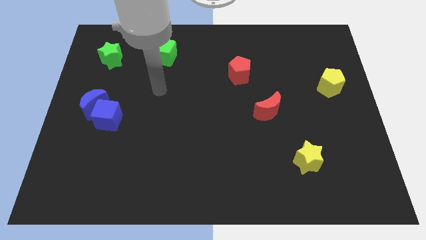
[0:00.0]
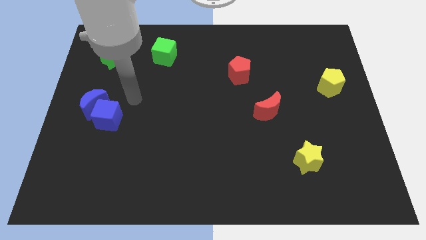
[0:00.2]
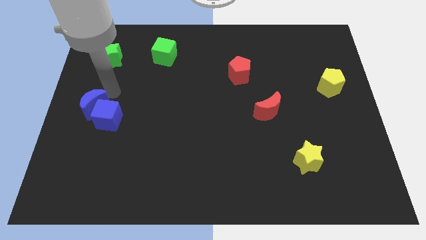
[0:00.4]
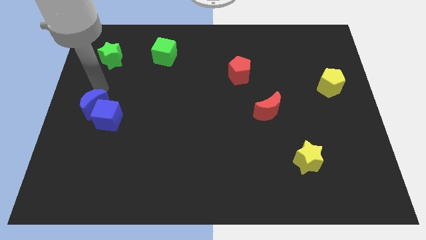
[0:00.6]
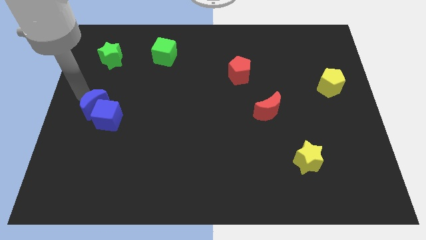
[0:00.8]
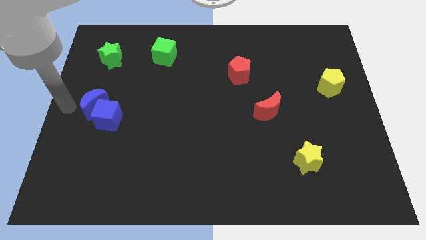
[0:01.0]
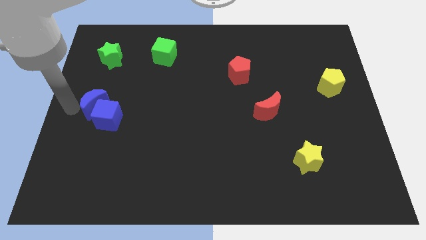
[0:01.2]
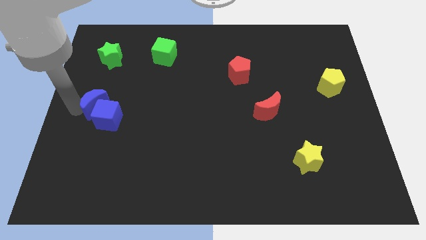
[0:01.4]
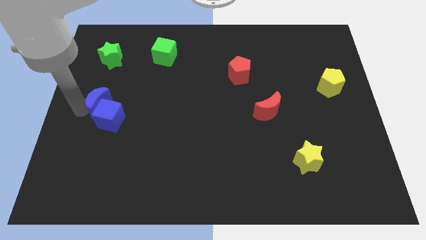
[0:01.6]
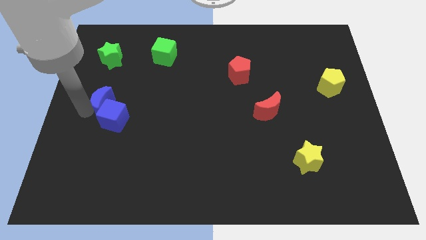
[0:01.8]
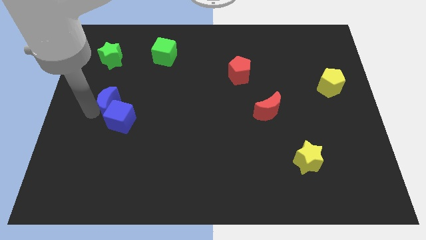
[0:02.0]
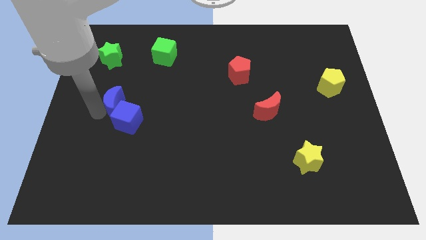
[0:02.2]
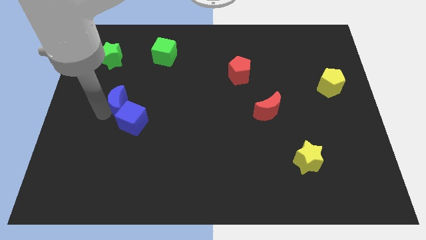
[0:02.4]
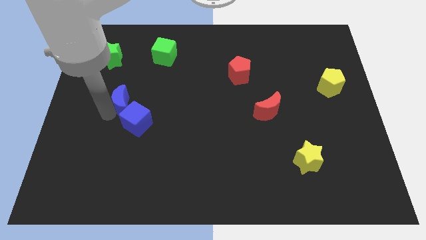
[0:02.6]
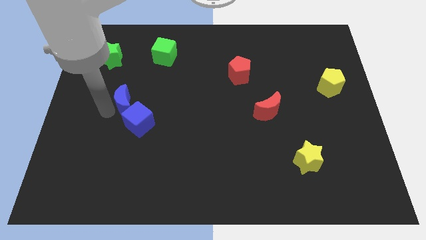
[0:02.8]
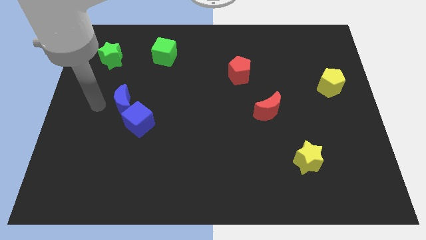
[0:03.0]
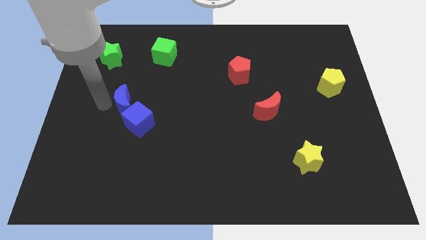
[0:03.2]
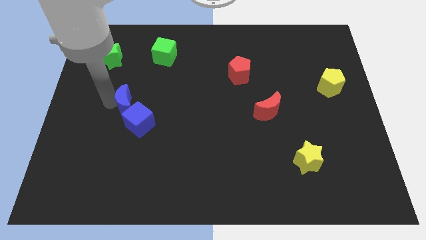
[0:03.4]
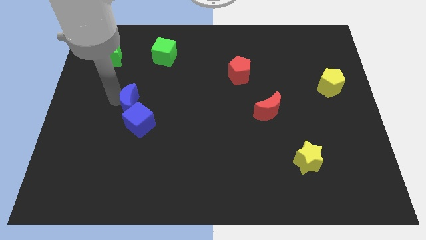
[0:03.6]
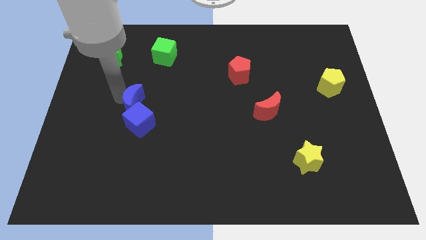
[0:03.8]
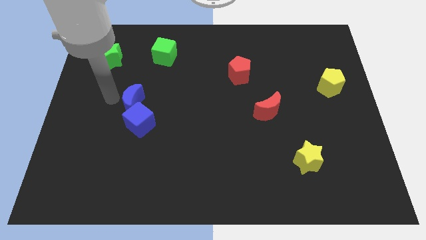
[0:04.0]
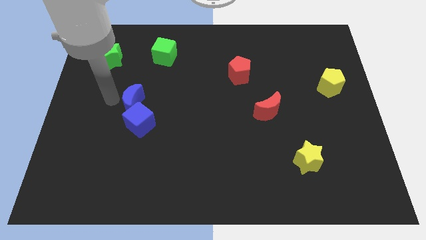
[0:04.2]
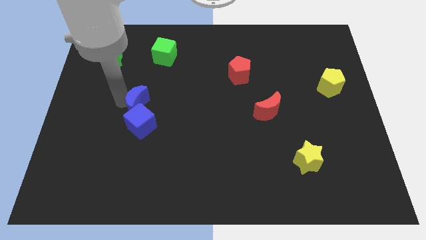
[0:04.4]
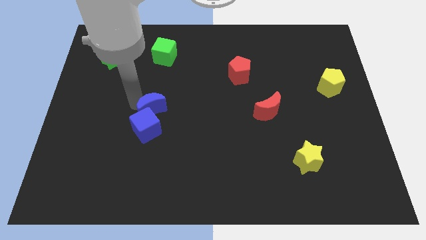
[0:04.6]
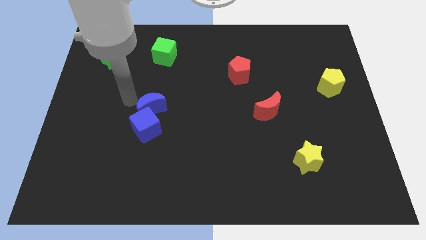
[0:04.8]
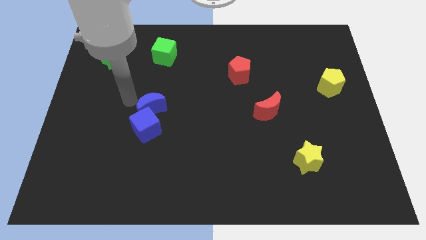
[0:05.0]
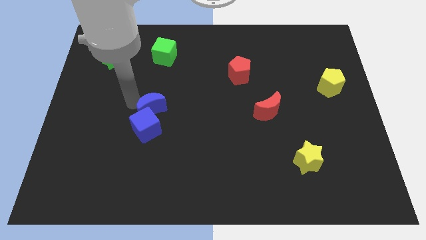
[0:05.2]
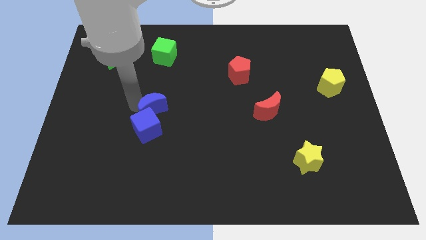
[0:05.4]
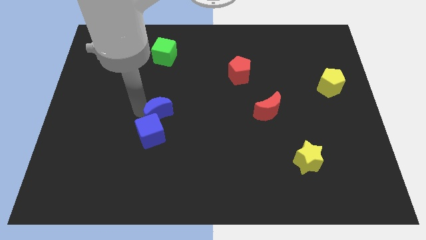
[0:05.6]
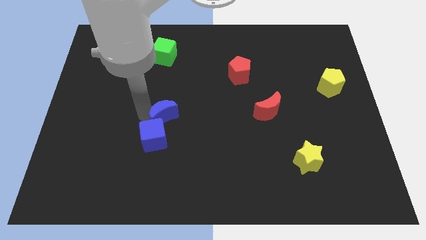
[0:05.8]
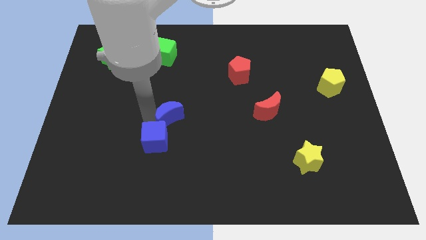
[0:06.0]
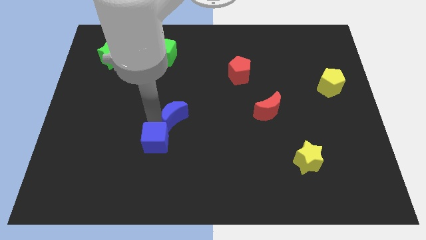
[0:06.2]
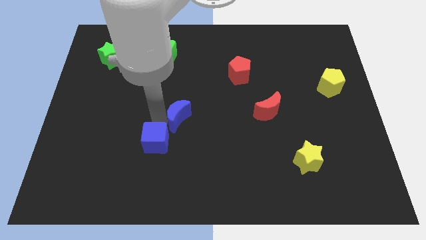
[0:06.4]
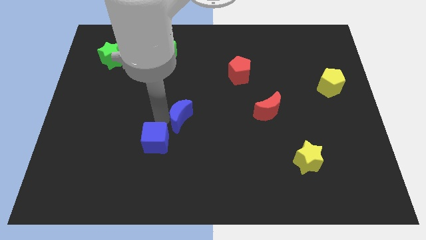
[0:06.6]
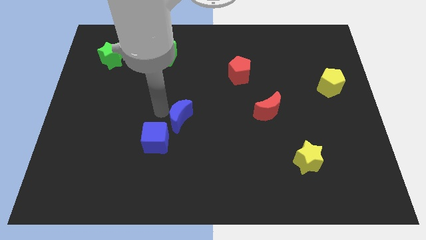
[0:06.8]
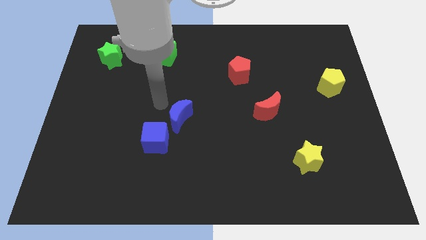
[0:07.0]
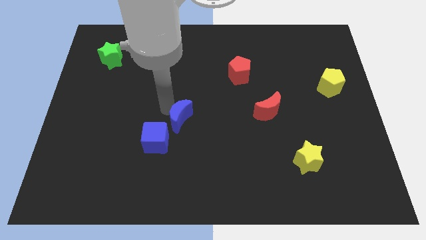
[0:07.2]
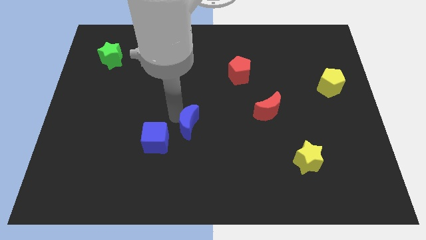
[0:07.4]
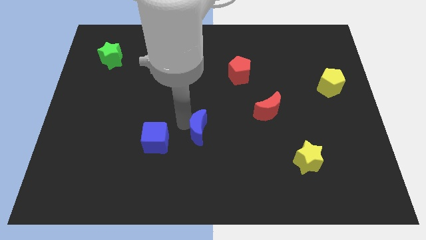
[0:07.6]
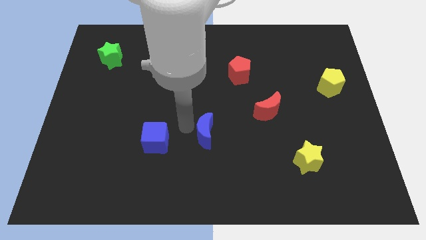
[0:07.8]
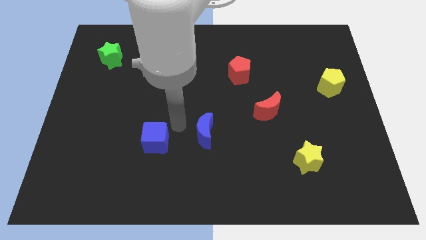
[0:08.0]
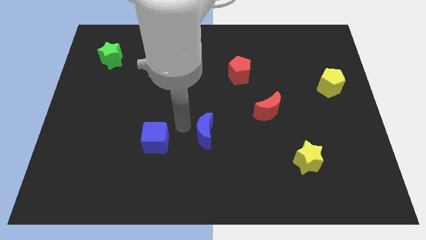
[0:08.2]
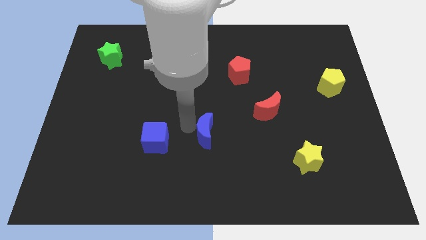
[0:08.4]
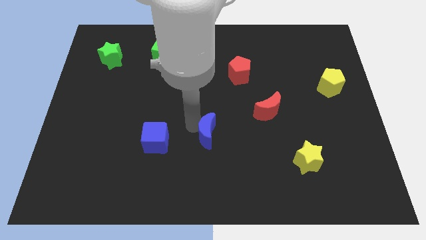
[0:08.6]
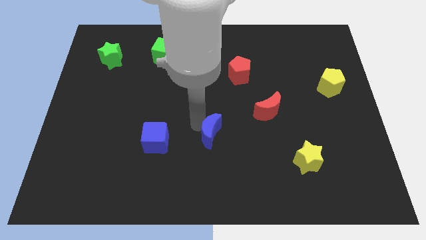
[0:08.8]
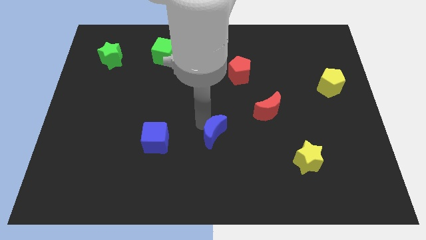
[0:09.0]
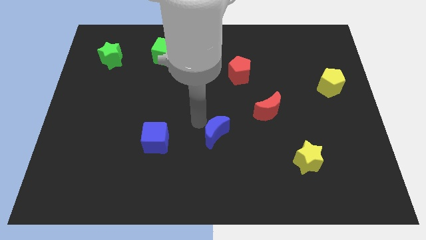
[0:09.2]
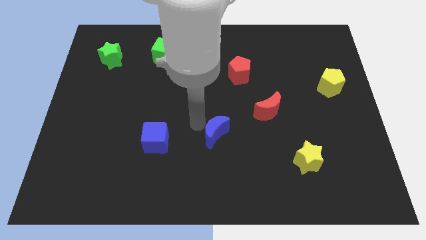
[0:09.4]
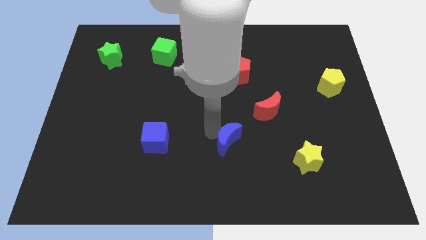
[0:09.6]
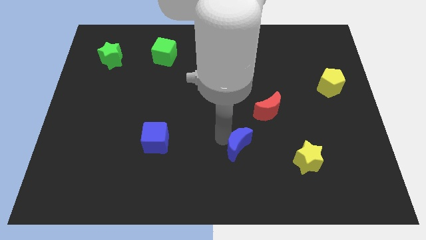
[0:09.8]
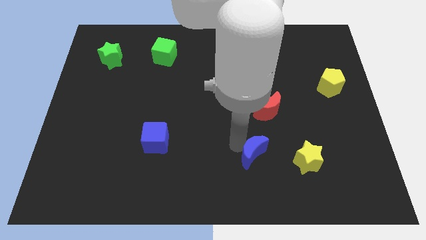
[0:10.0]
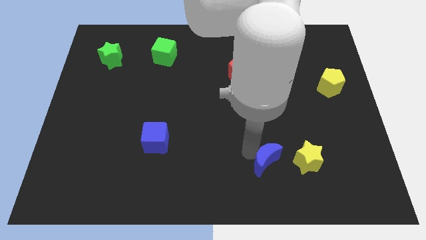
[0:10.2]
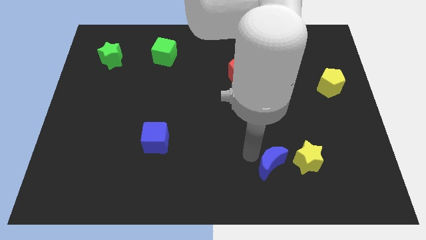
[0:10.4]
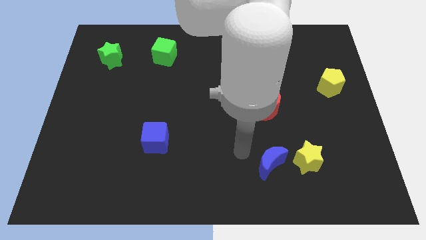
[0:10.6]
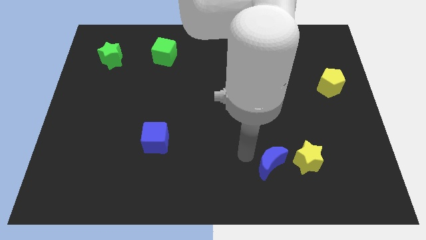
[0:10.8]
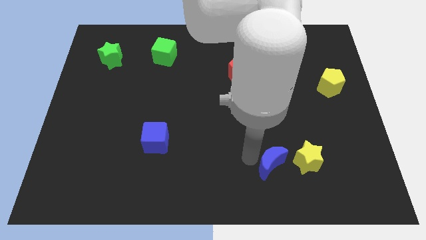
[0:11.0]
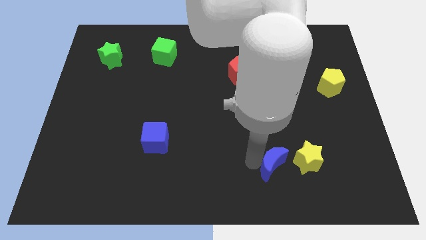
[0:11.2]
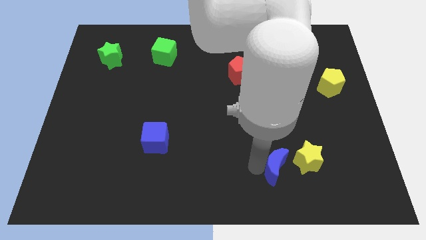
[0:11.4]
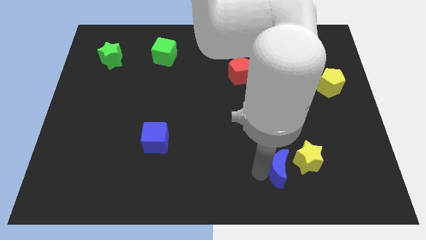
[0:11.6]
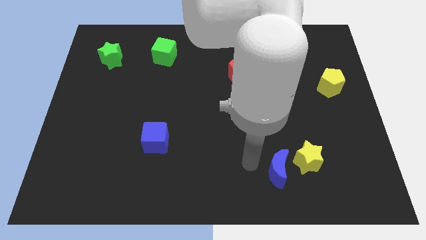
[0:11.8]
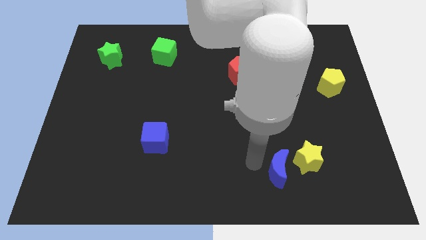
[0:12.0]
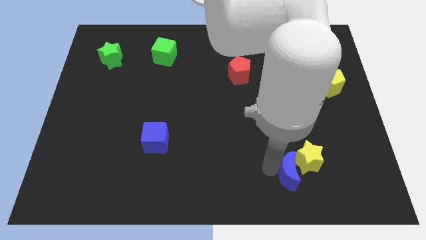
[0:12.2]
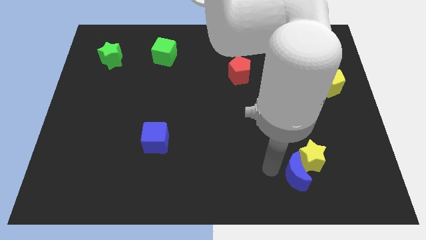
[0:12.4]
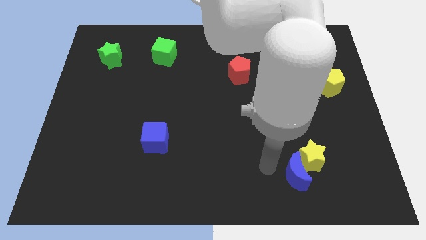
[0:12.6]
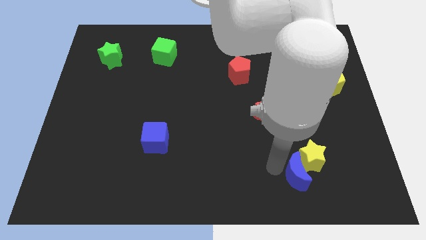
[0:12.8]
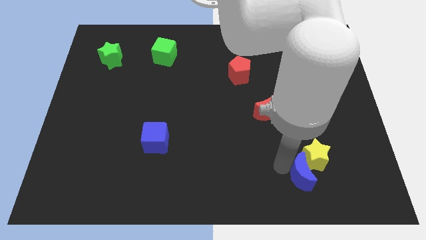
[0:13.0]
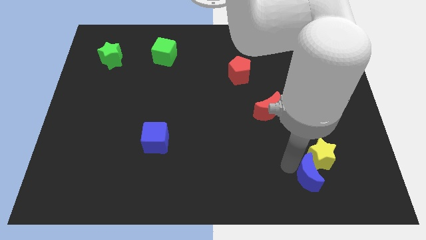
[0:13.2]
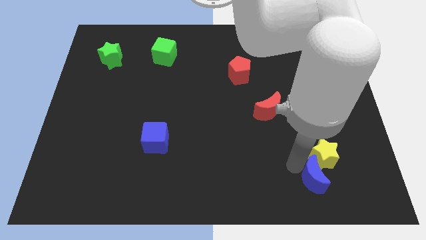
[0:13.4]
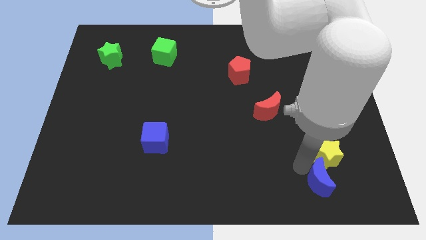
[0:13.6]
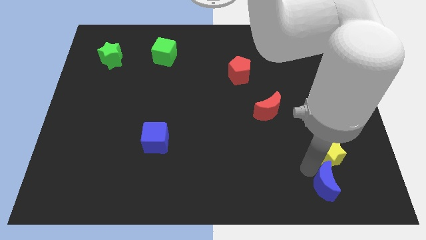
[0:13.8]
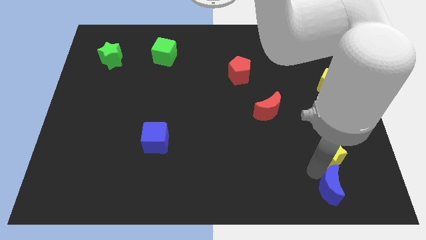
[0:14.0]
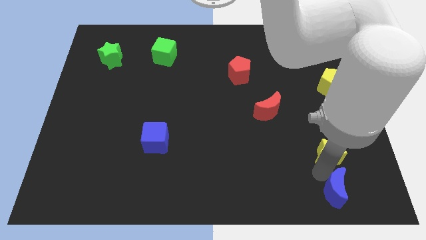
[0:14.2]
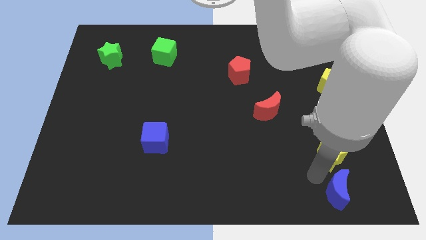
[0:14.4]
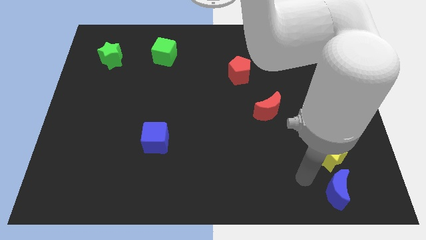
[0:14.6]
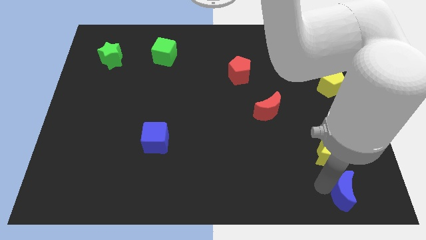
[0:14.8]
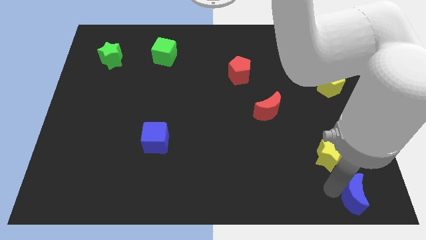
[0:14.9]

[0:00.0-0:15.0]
push the blue moon to the bottom right corner
